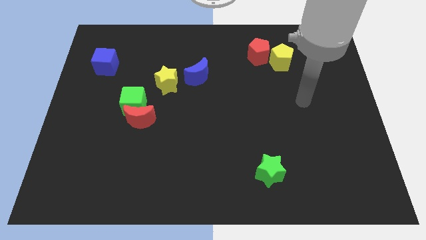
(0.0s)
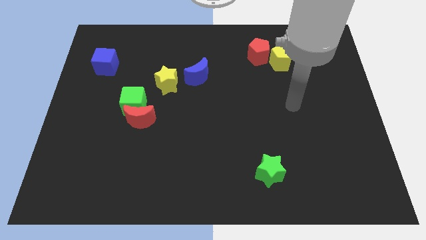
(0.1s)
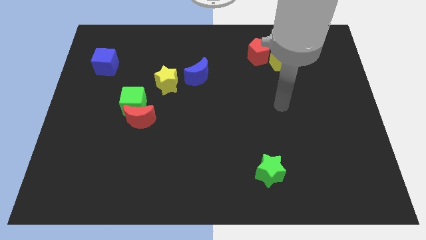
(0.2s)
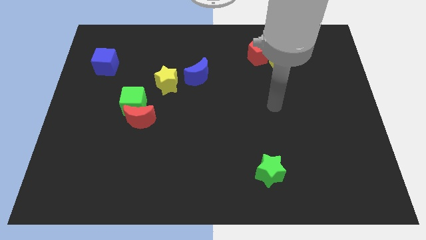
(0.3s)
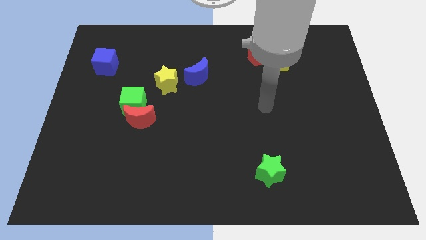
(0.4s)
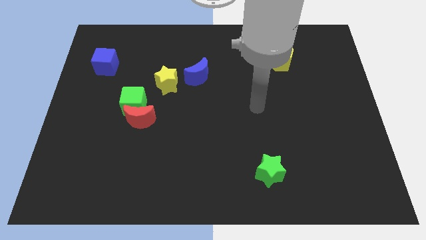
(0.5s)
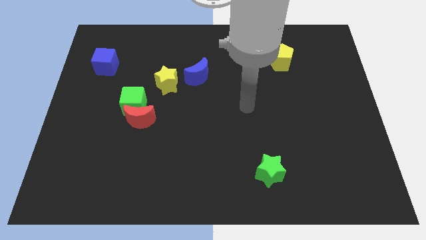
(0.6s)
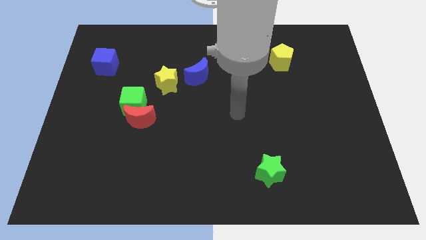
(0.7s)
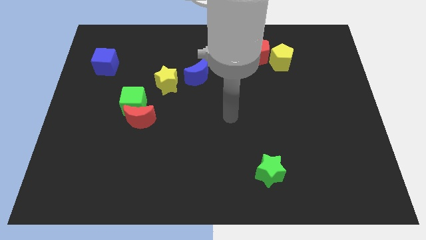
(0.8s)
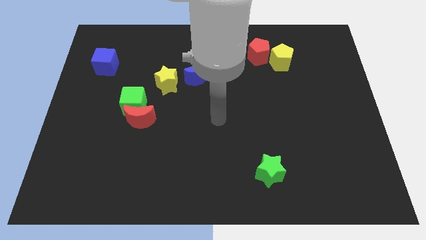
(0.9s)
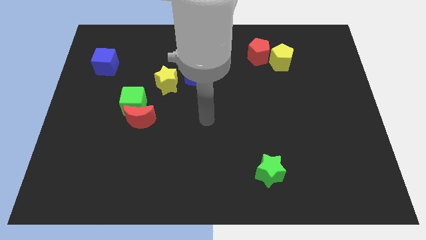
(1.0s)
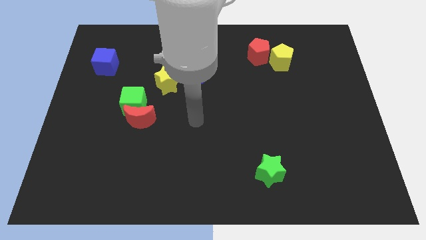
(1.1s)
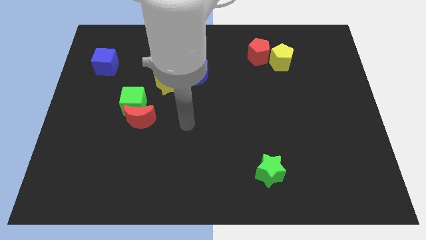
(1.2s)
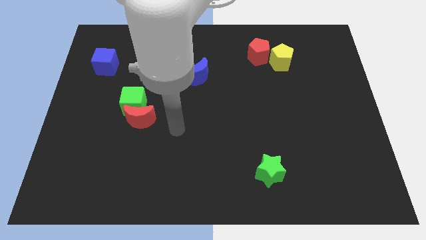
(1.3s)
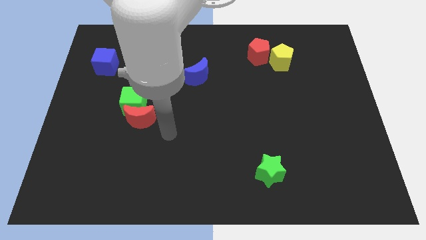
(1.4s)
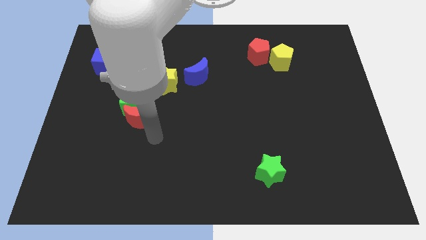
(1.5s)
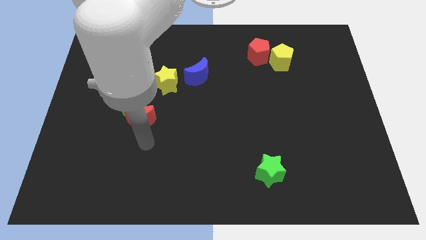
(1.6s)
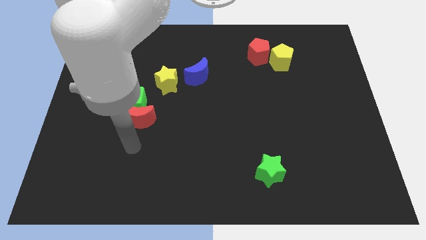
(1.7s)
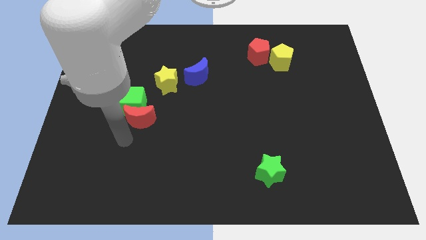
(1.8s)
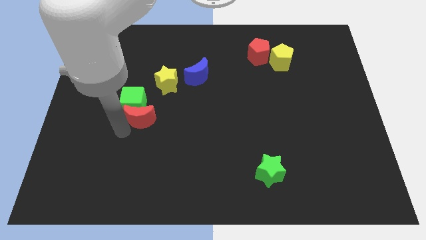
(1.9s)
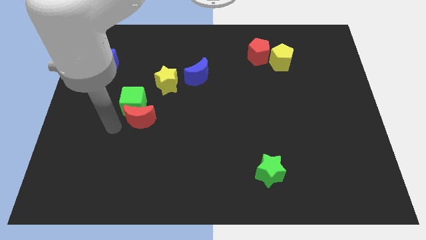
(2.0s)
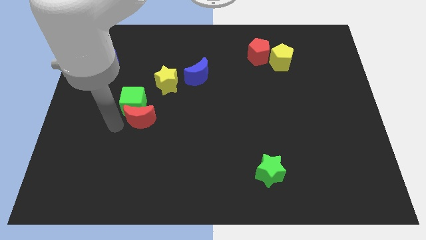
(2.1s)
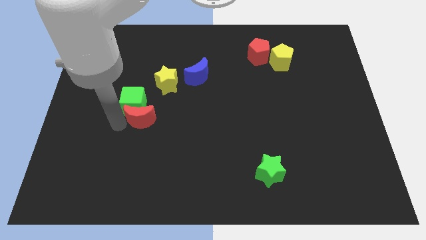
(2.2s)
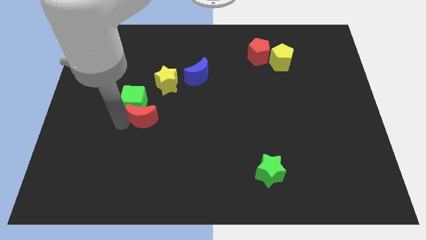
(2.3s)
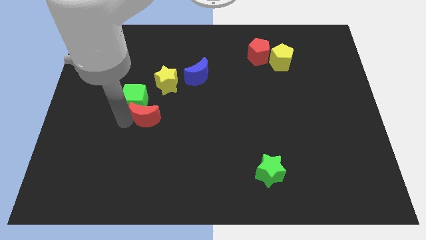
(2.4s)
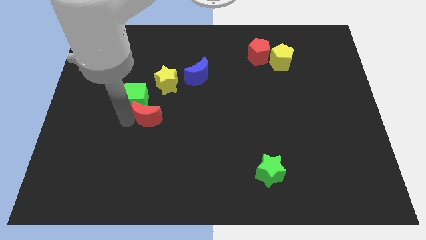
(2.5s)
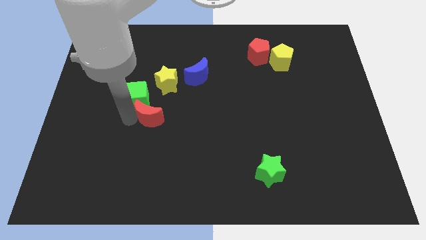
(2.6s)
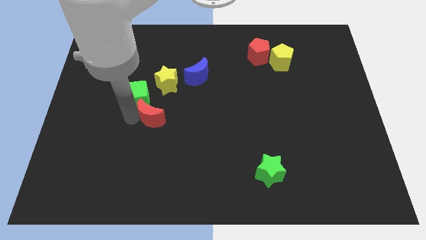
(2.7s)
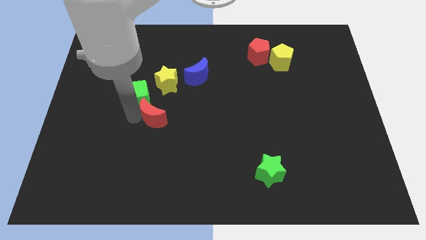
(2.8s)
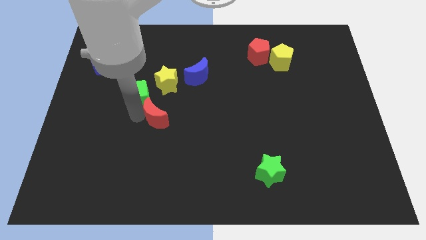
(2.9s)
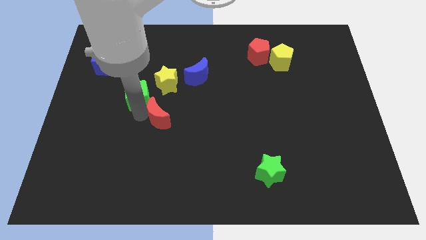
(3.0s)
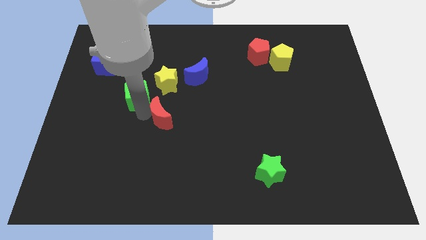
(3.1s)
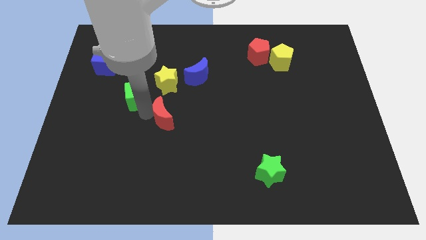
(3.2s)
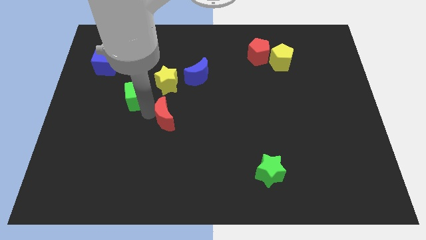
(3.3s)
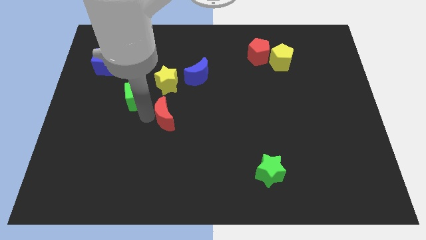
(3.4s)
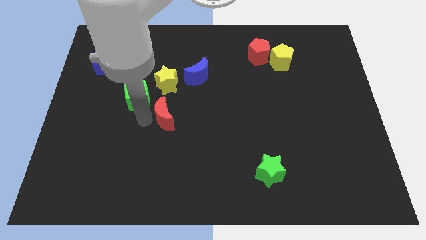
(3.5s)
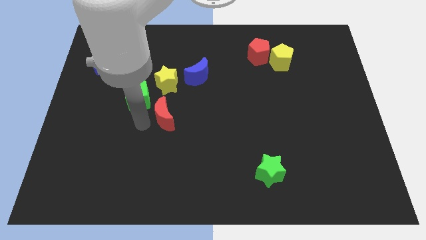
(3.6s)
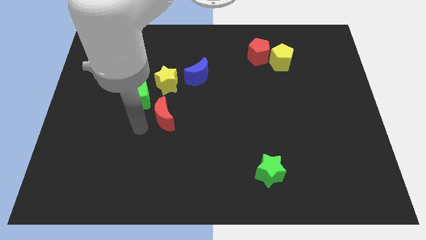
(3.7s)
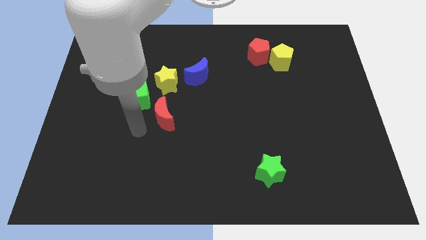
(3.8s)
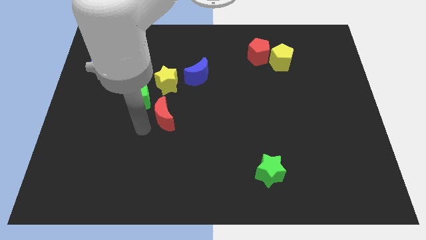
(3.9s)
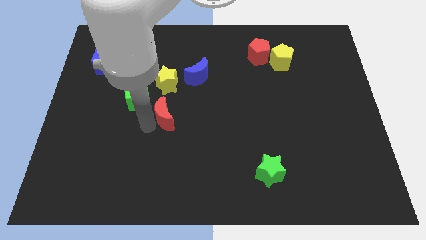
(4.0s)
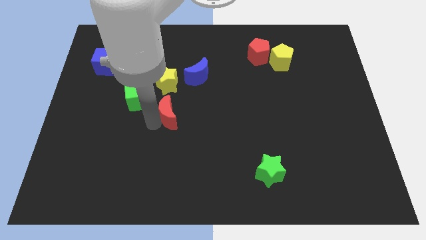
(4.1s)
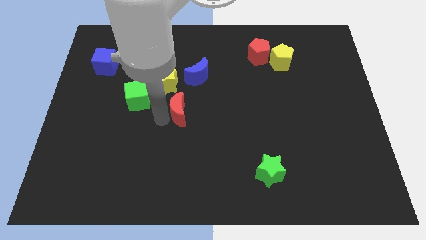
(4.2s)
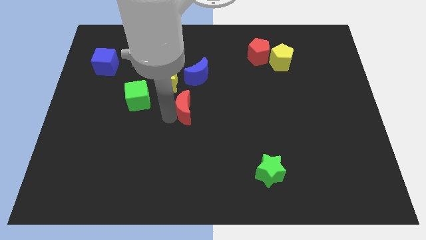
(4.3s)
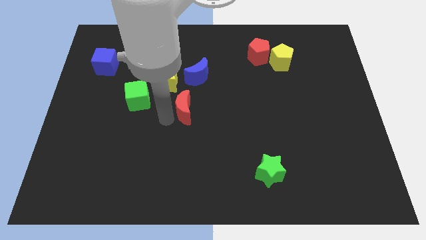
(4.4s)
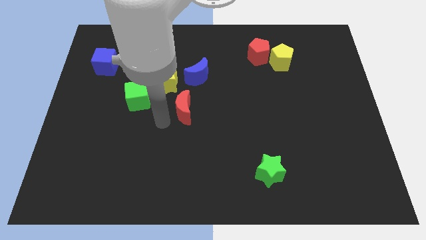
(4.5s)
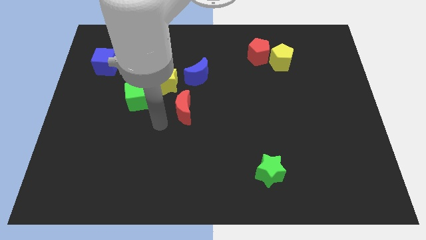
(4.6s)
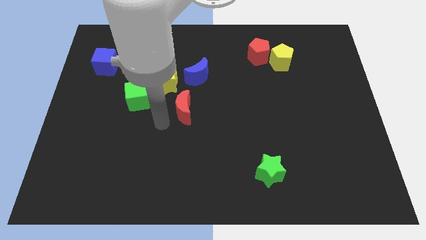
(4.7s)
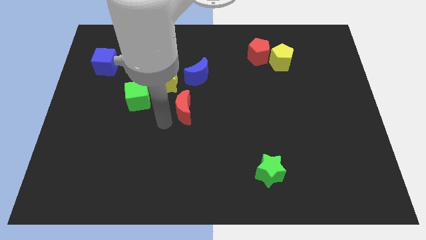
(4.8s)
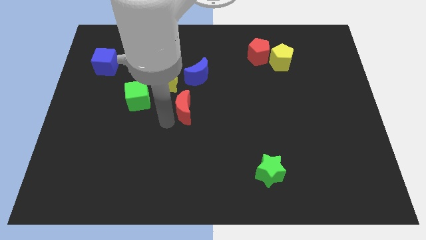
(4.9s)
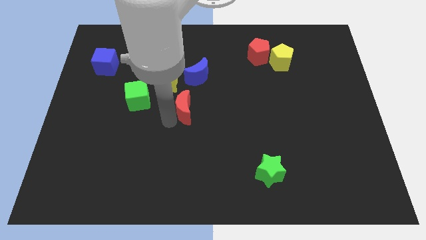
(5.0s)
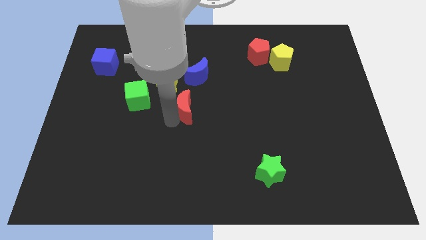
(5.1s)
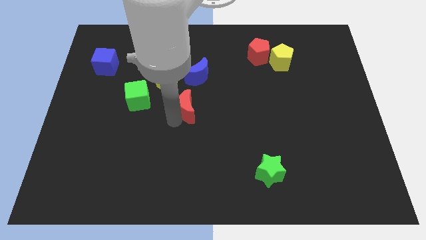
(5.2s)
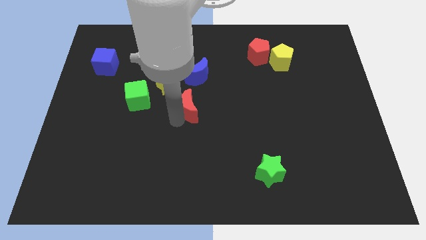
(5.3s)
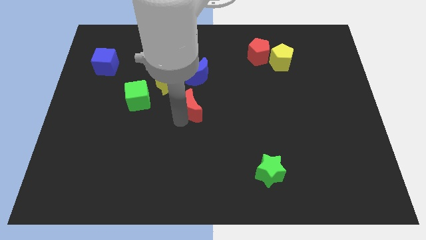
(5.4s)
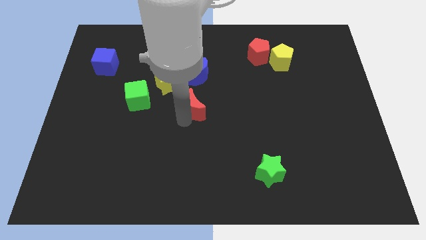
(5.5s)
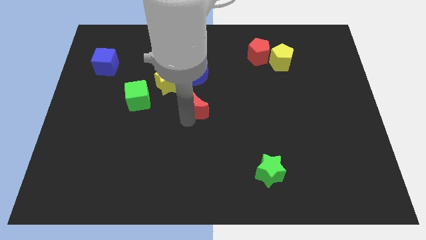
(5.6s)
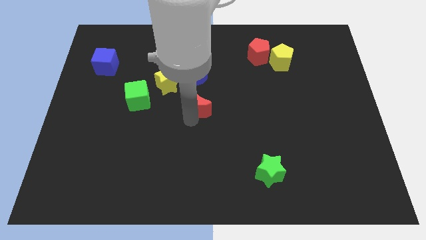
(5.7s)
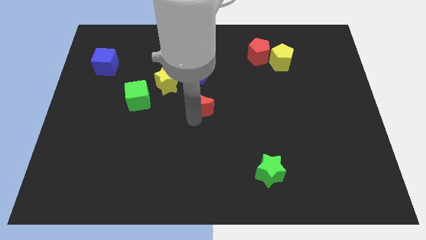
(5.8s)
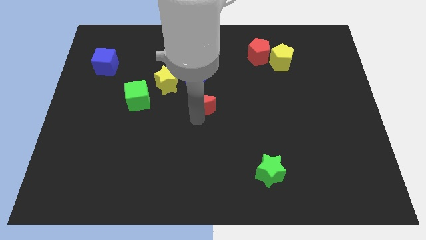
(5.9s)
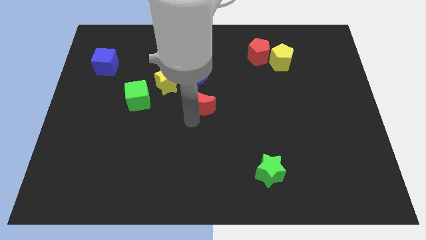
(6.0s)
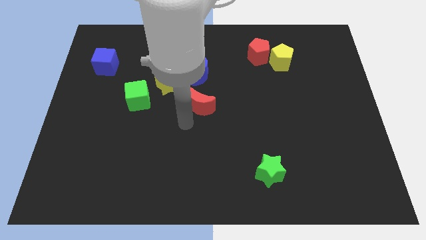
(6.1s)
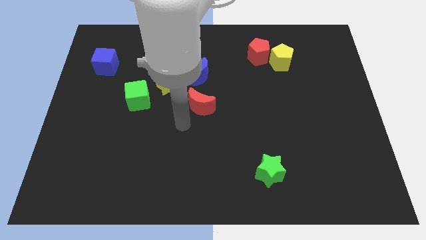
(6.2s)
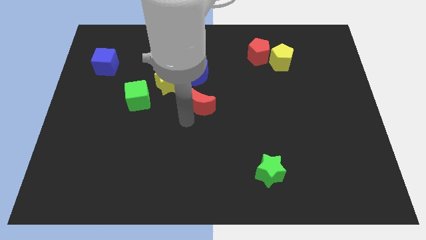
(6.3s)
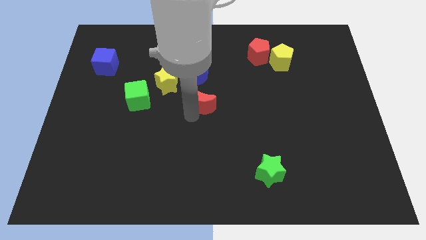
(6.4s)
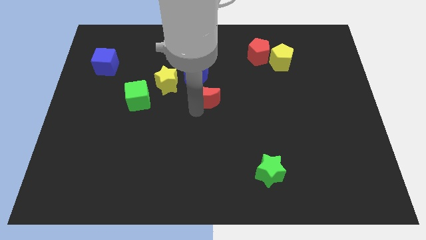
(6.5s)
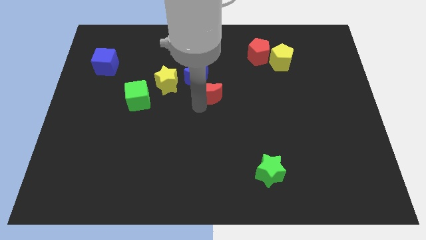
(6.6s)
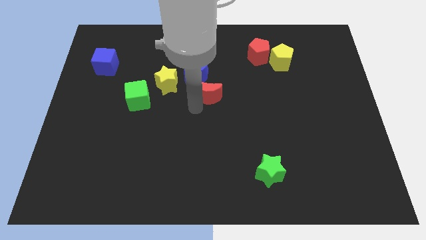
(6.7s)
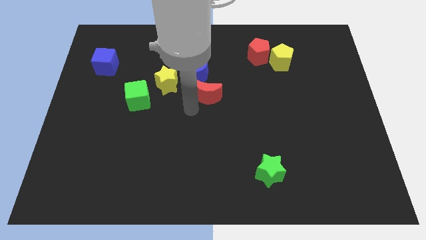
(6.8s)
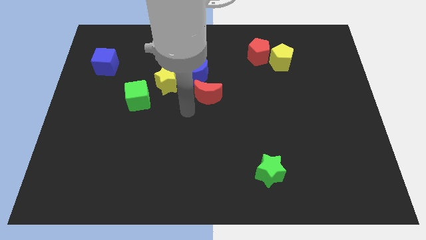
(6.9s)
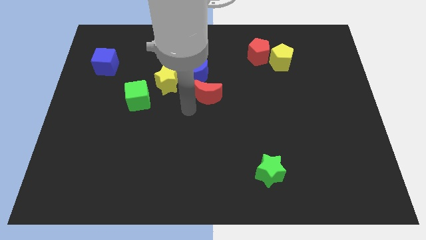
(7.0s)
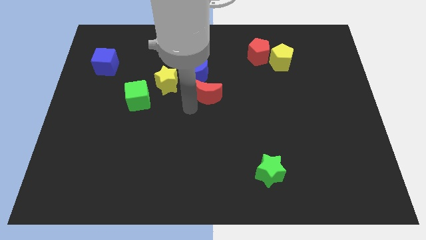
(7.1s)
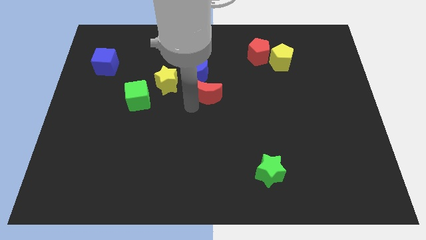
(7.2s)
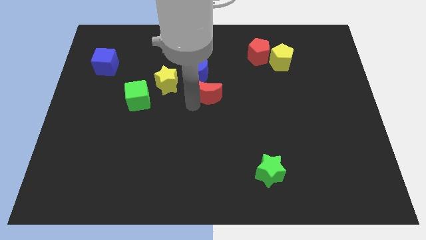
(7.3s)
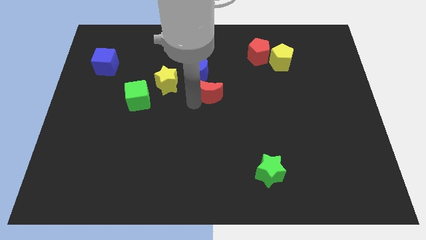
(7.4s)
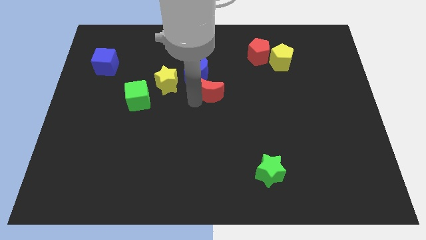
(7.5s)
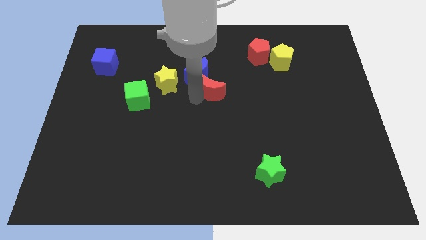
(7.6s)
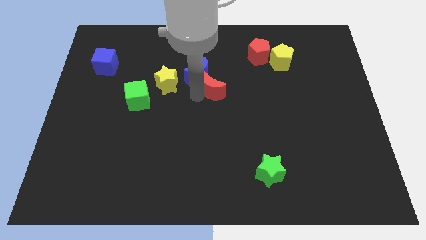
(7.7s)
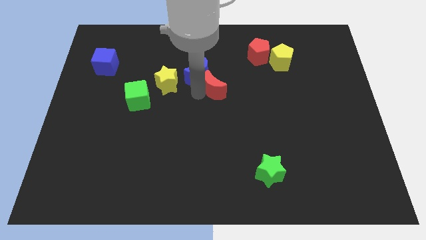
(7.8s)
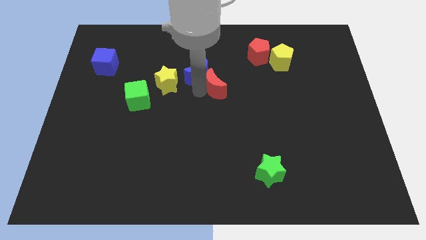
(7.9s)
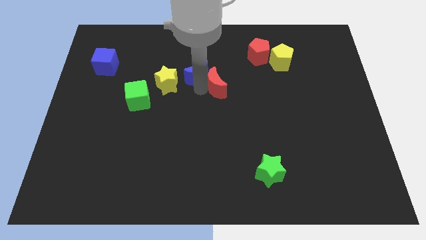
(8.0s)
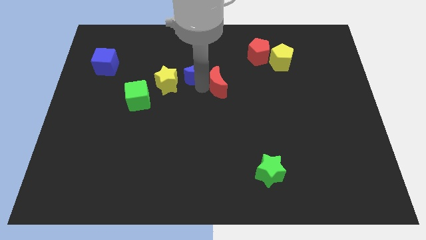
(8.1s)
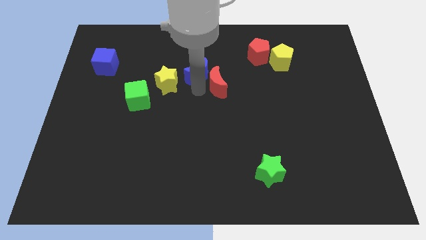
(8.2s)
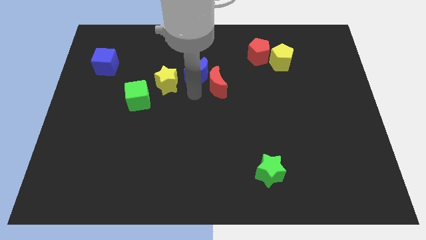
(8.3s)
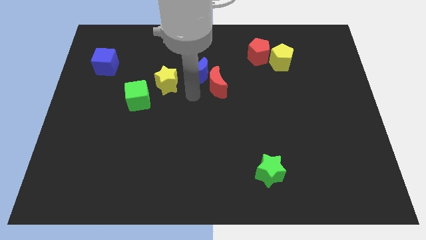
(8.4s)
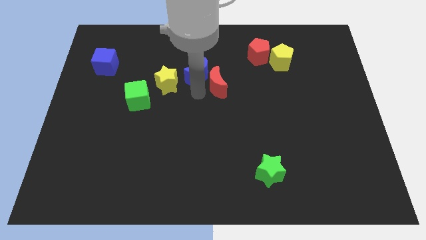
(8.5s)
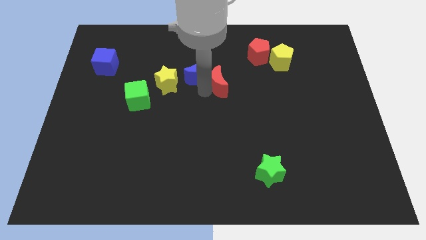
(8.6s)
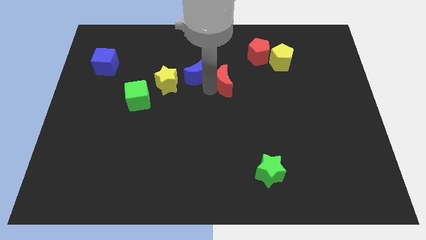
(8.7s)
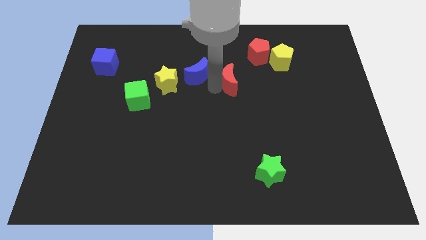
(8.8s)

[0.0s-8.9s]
push the red moon to the bottom left side of the red pentagon
